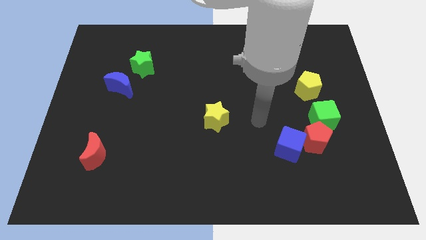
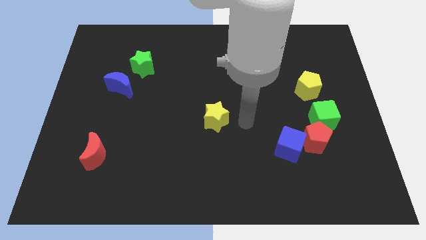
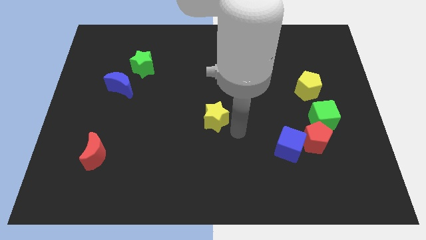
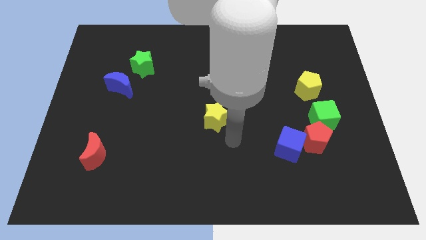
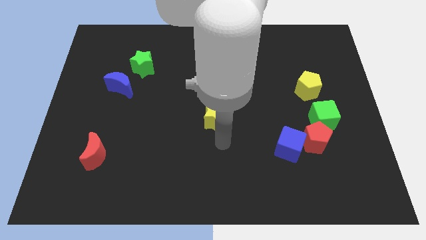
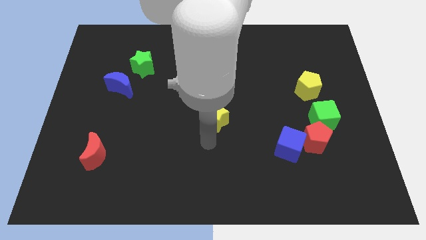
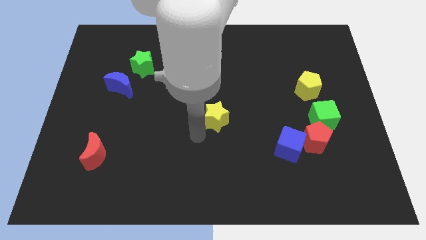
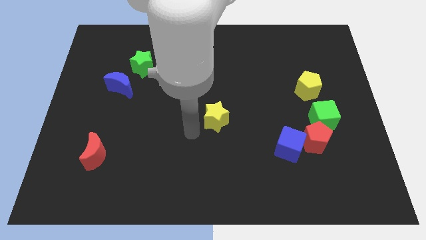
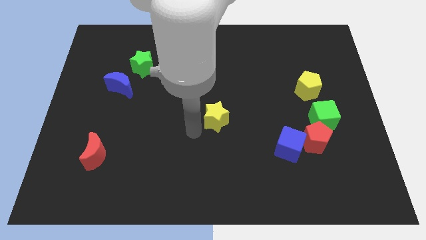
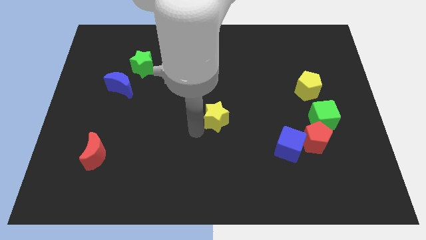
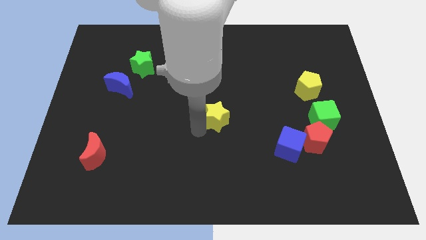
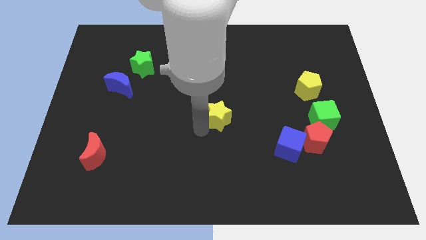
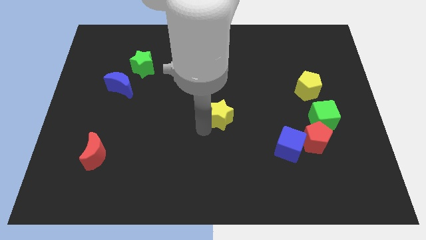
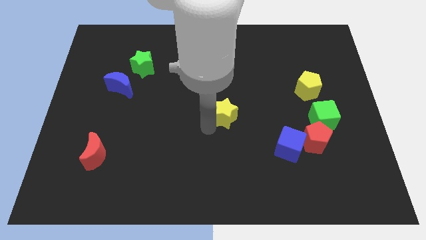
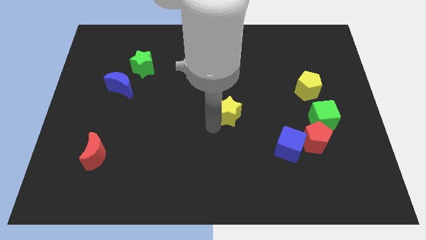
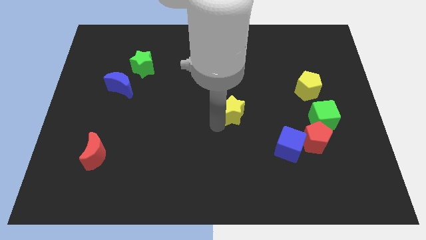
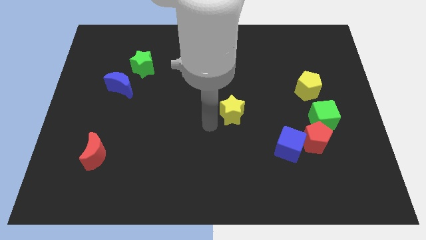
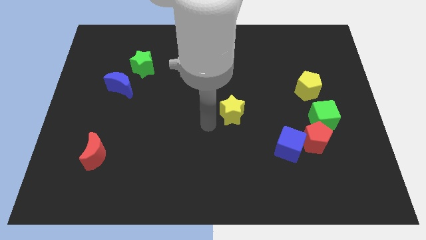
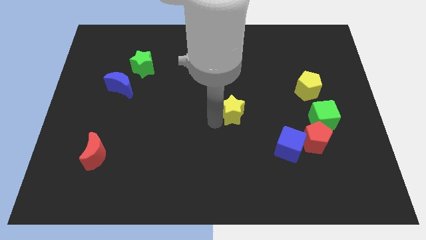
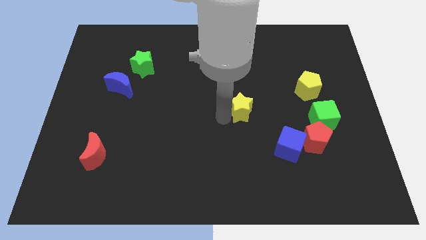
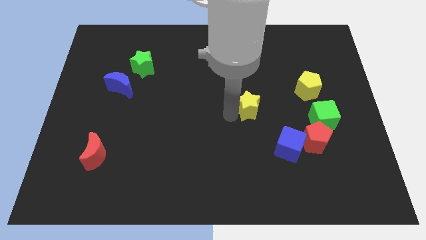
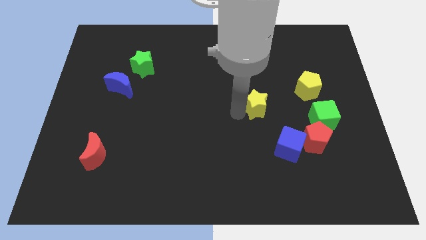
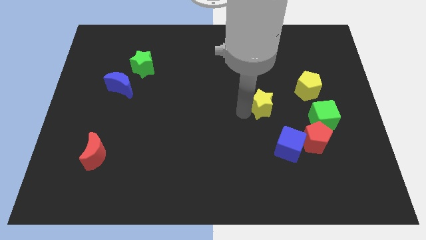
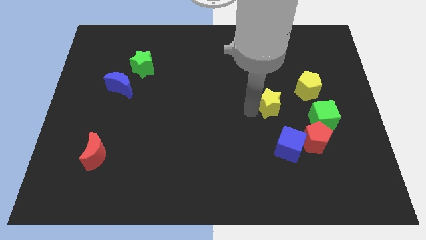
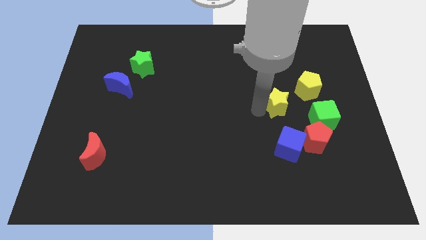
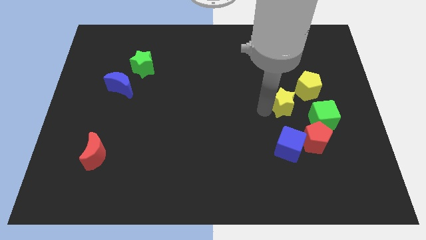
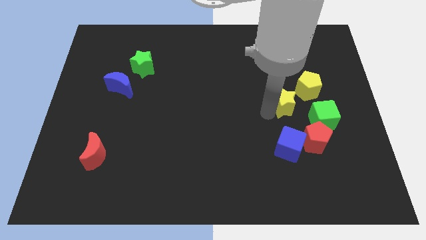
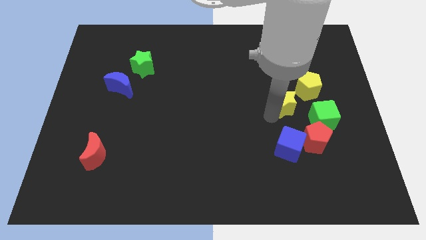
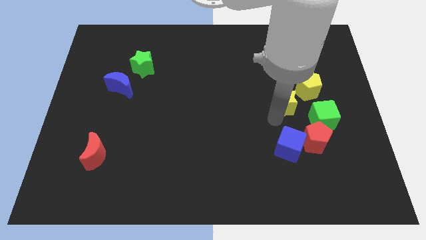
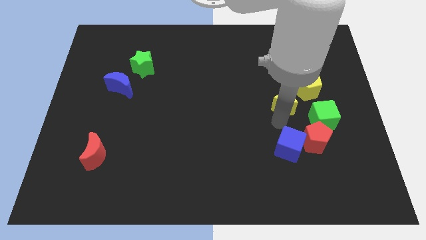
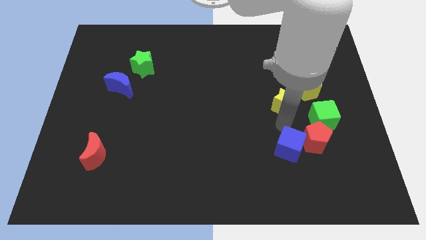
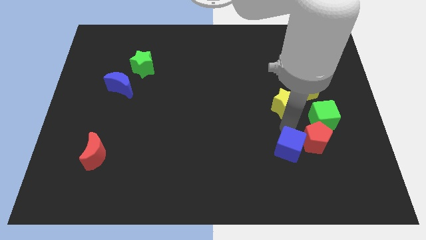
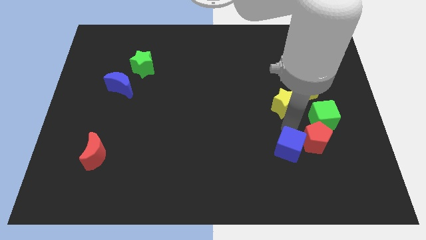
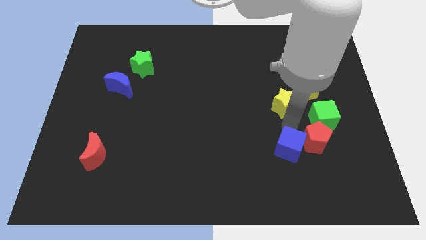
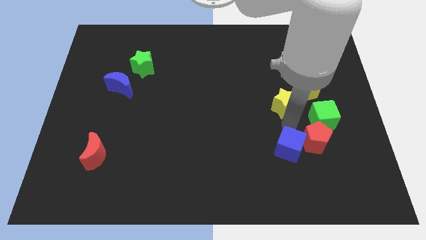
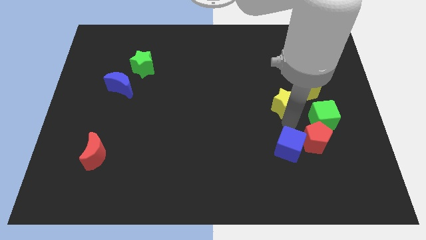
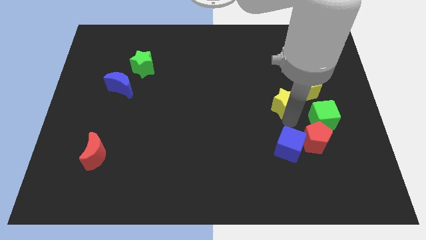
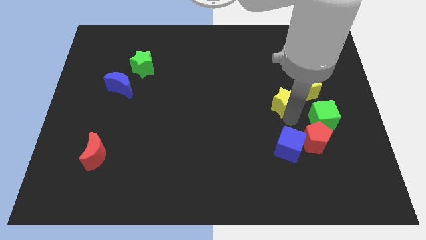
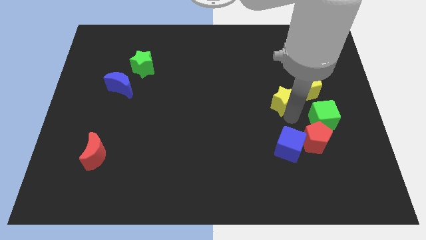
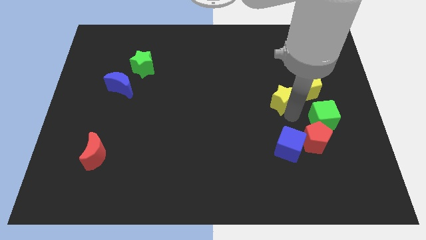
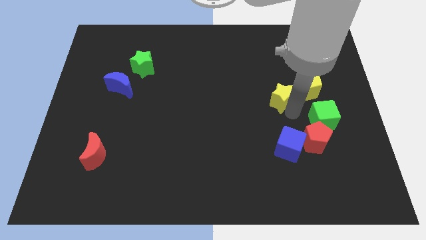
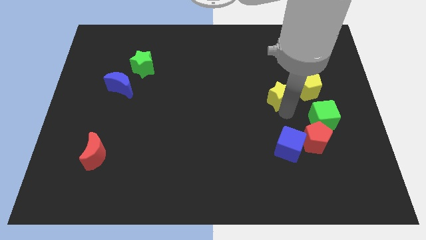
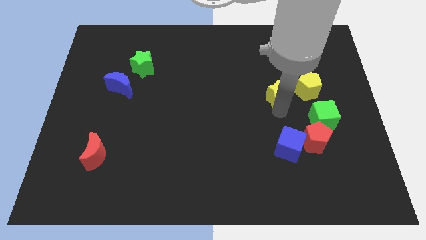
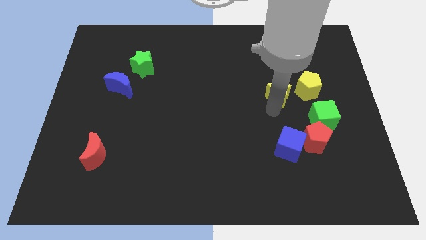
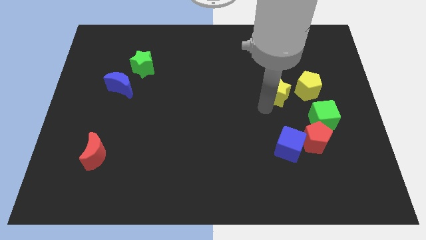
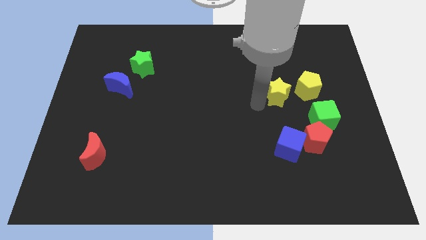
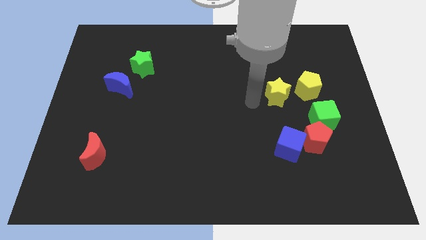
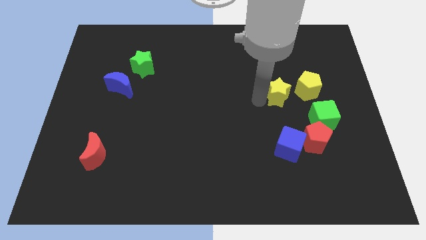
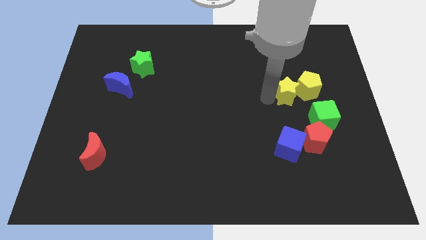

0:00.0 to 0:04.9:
move the yellow star to the yellow pentagon

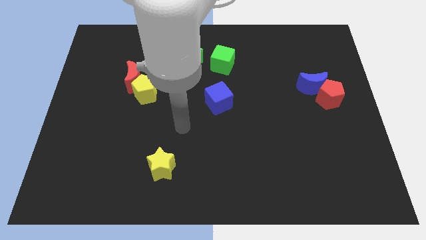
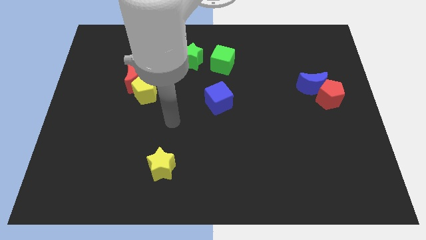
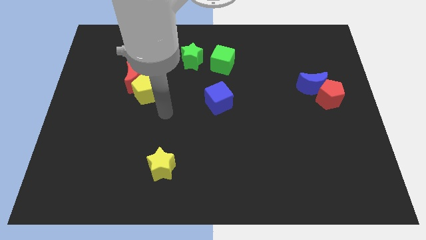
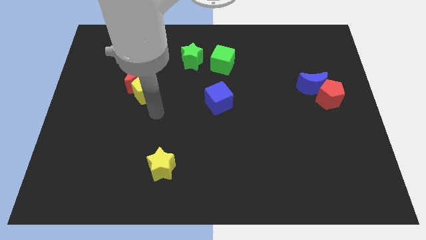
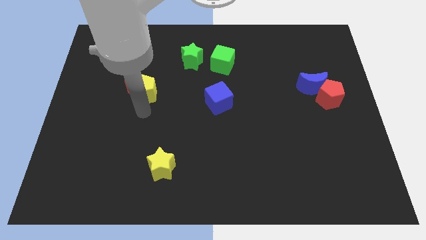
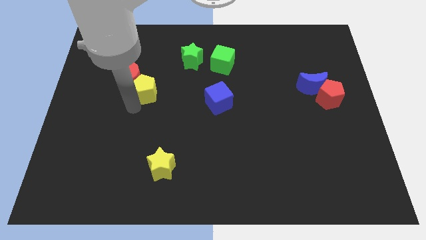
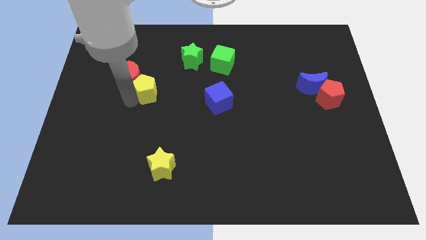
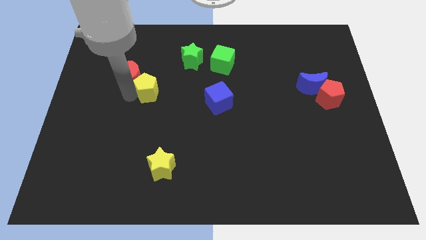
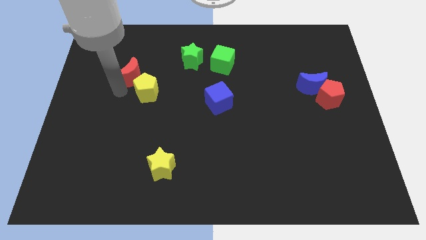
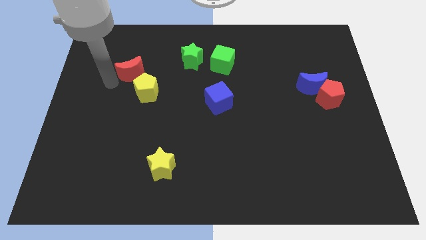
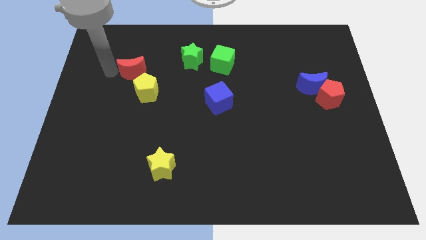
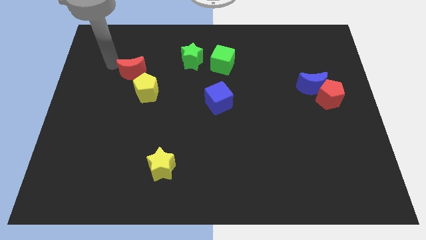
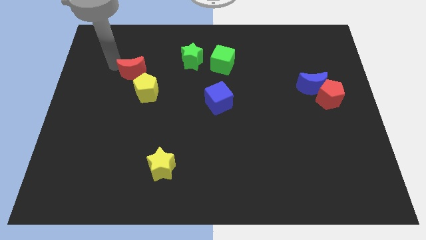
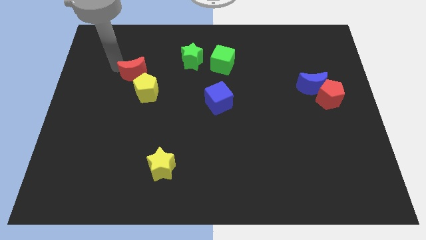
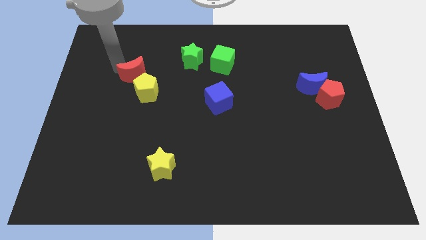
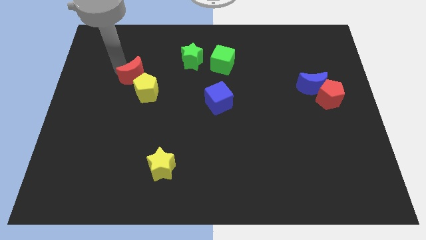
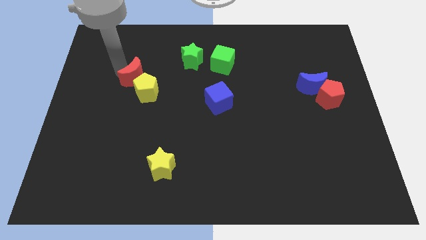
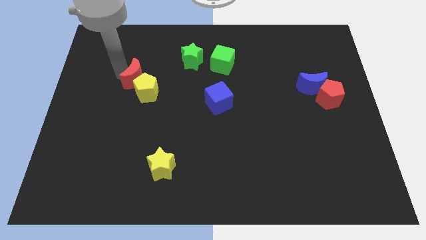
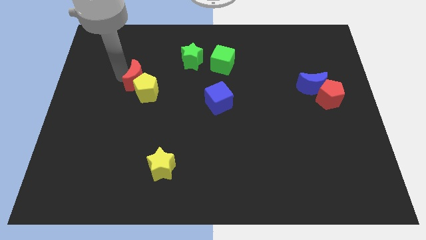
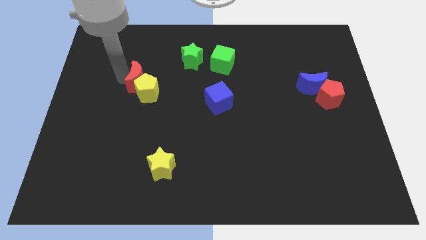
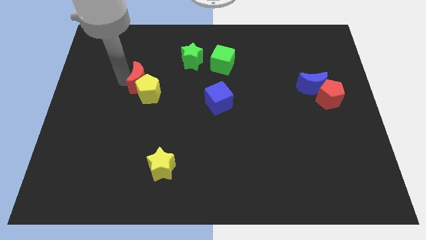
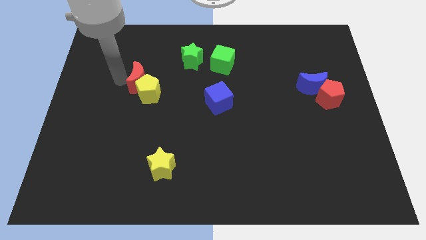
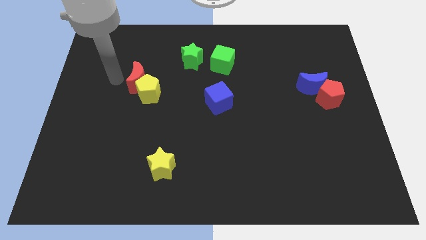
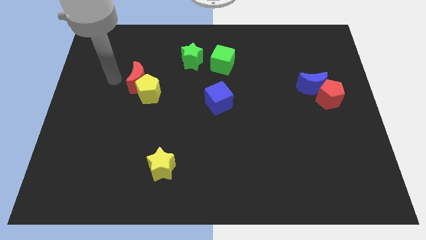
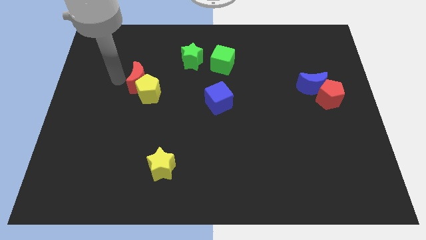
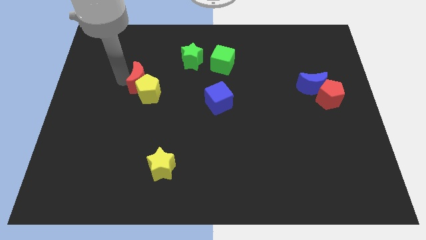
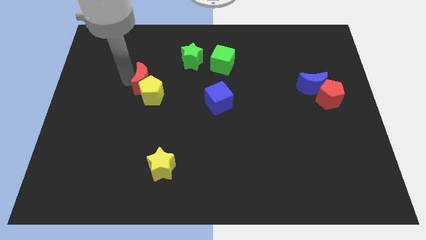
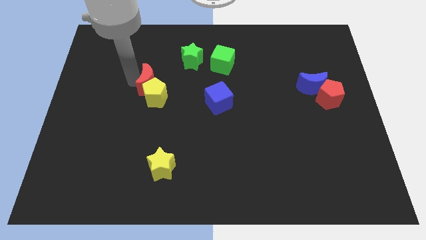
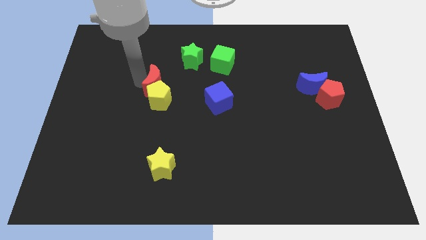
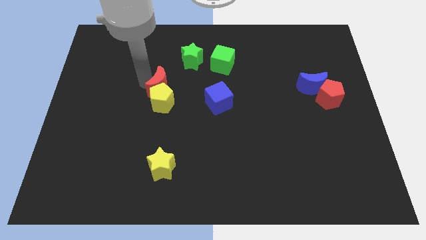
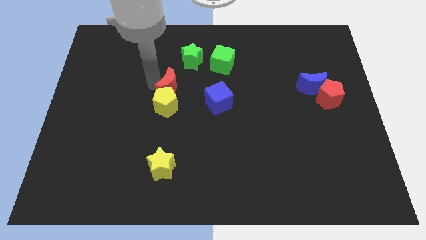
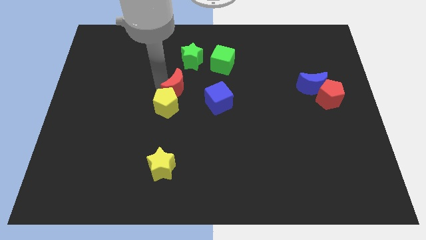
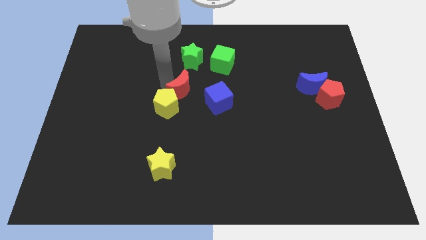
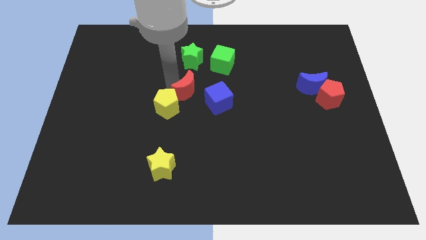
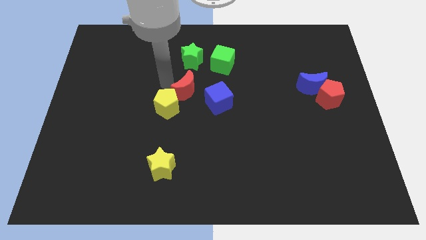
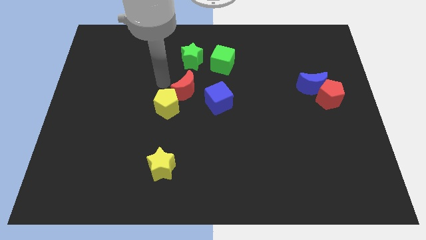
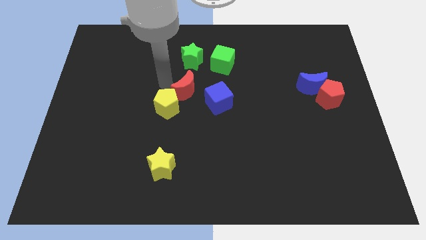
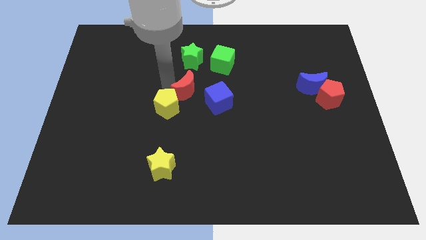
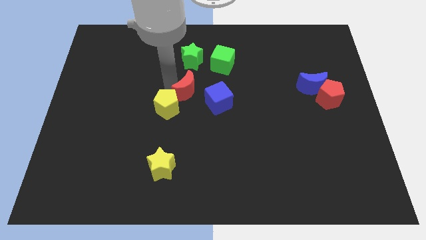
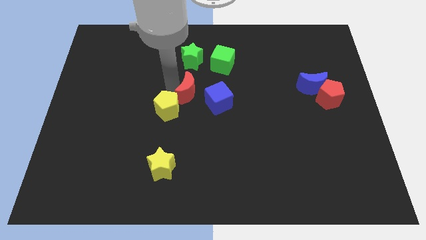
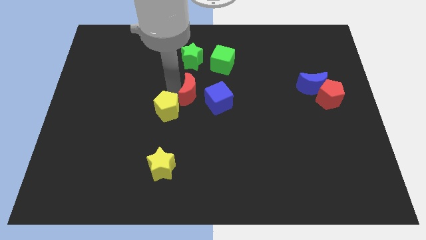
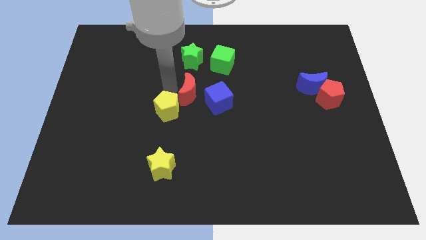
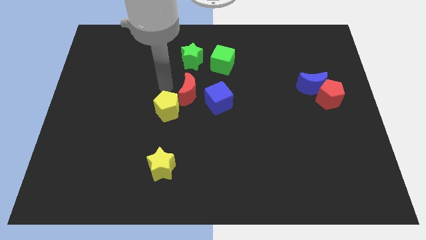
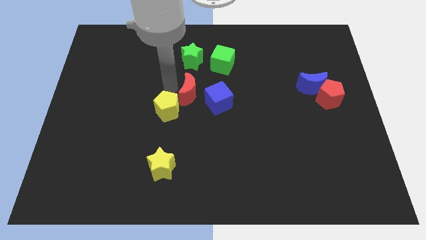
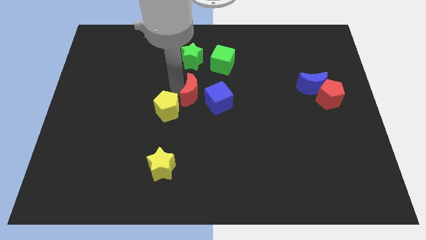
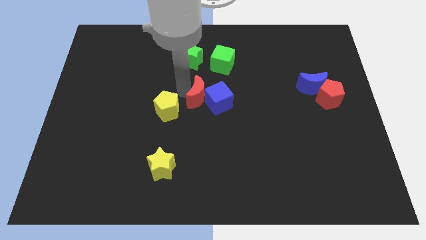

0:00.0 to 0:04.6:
slide the red moon close to the blue cube
